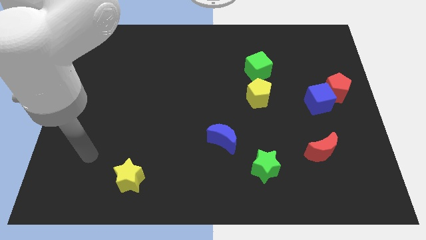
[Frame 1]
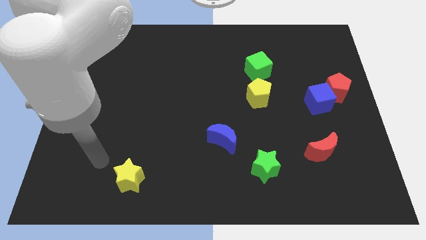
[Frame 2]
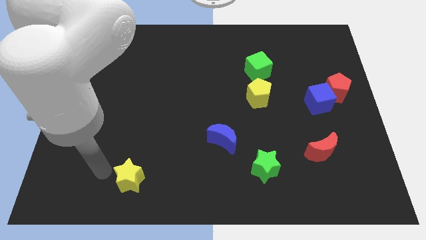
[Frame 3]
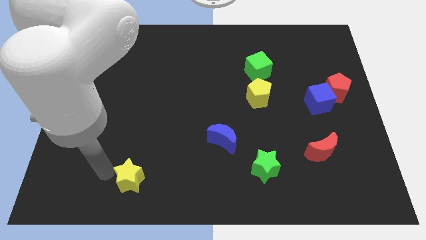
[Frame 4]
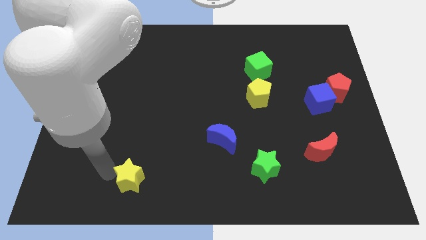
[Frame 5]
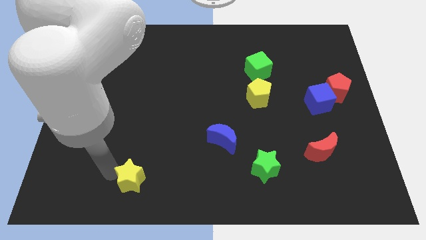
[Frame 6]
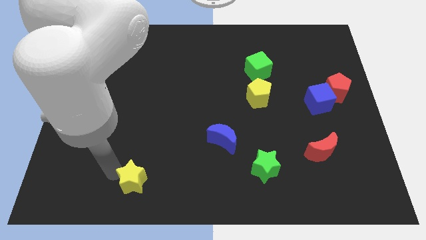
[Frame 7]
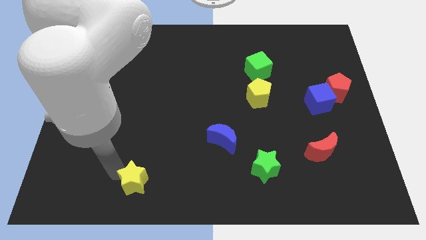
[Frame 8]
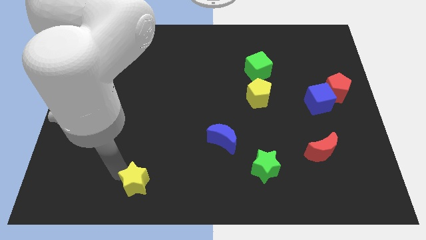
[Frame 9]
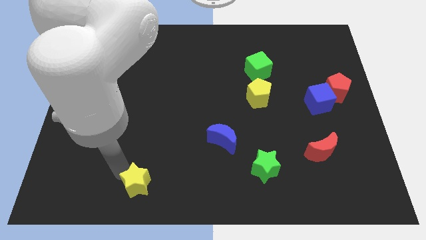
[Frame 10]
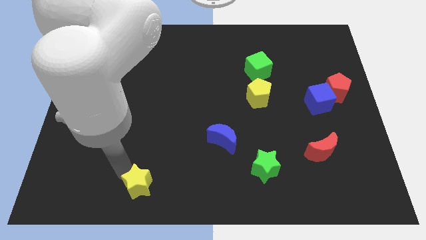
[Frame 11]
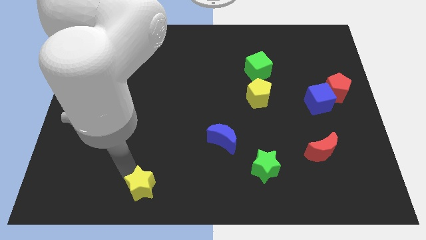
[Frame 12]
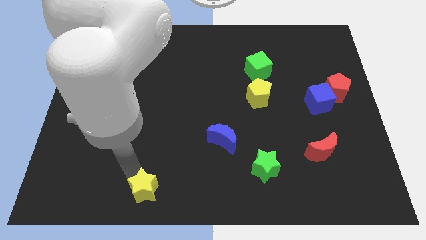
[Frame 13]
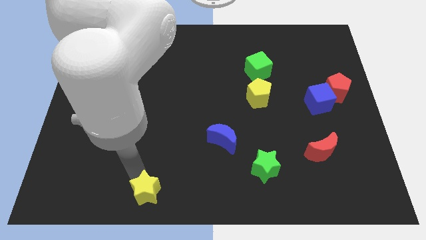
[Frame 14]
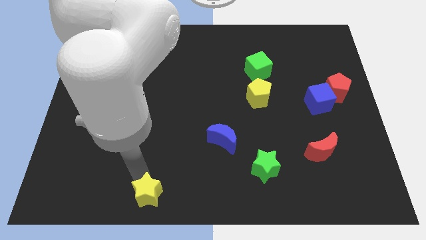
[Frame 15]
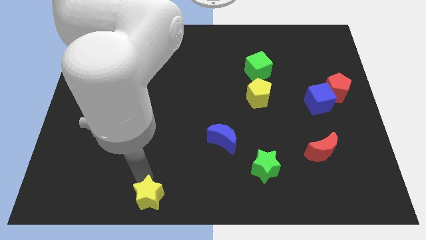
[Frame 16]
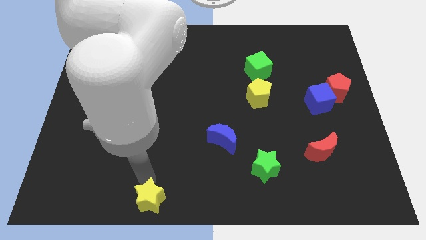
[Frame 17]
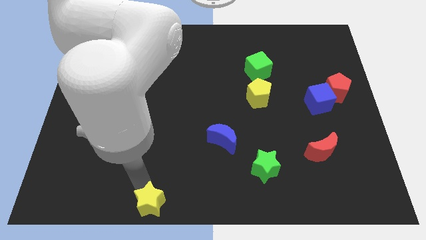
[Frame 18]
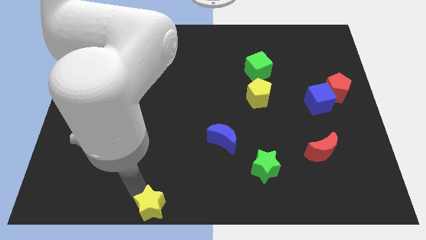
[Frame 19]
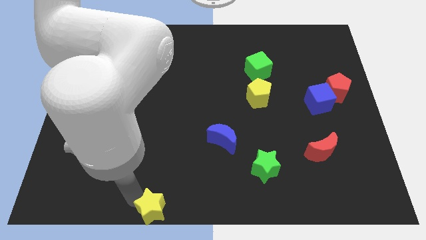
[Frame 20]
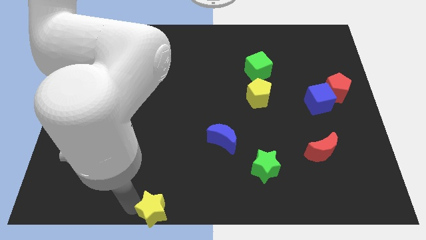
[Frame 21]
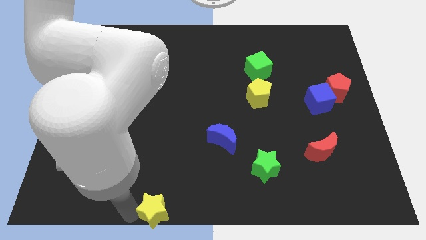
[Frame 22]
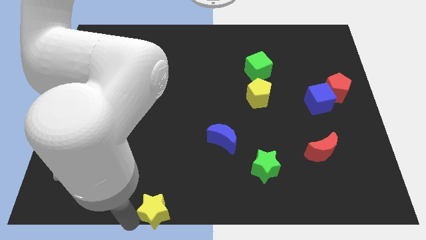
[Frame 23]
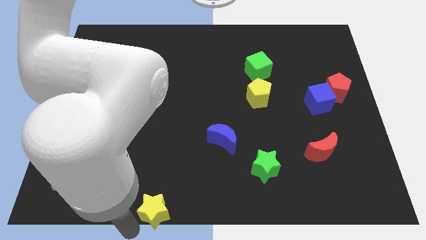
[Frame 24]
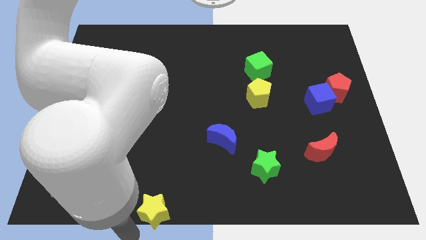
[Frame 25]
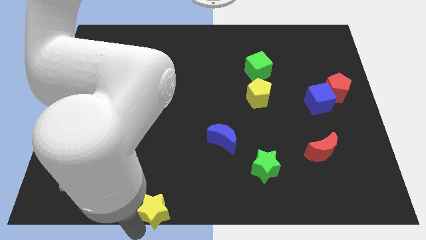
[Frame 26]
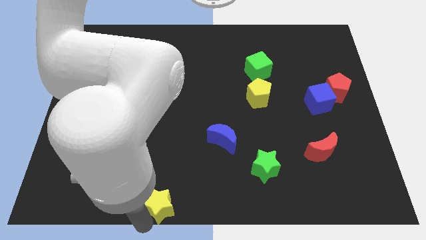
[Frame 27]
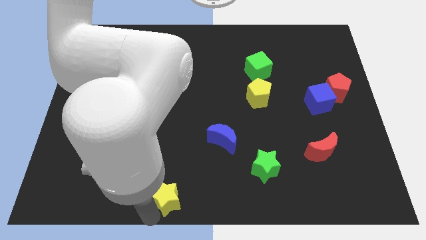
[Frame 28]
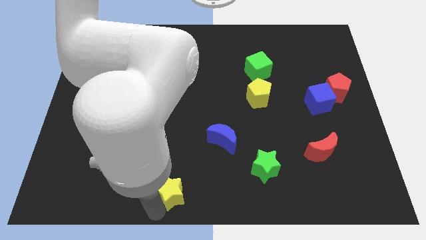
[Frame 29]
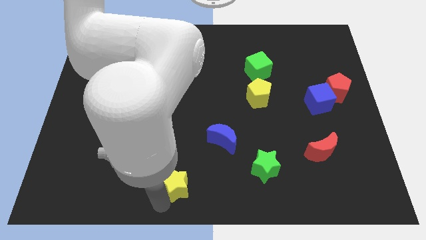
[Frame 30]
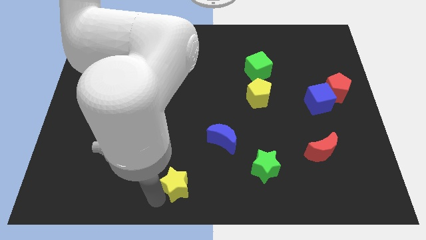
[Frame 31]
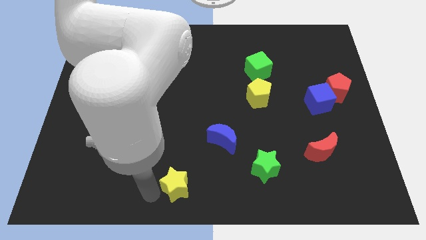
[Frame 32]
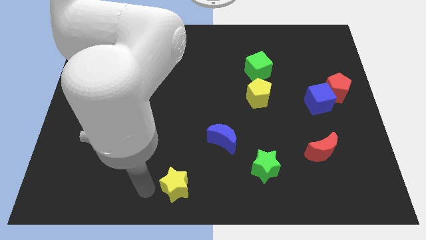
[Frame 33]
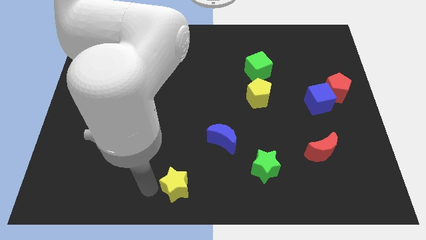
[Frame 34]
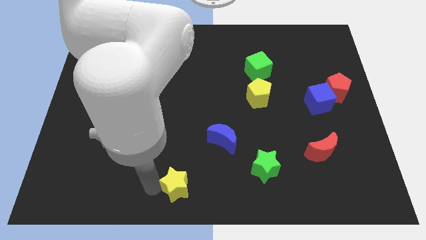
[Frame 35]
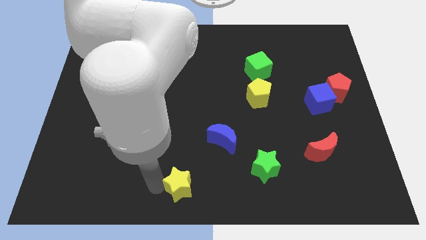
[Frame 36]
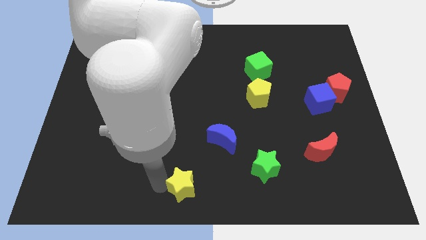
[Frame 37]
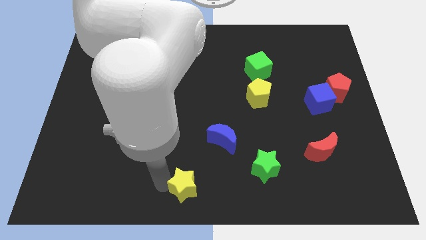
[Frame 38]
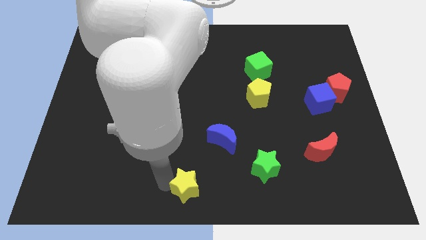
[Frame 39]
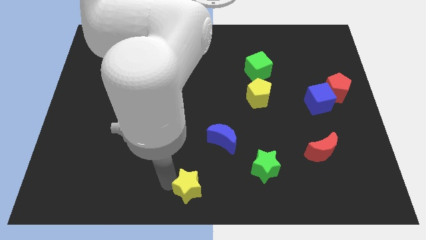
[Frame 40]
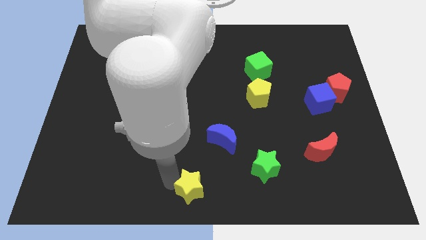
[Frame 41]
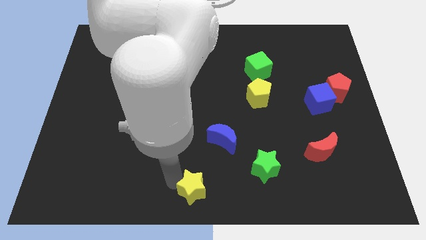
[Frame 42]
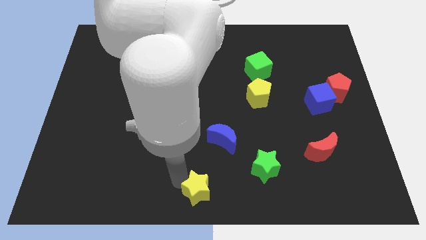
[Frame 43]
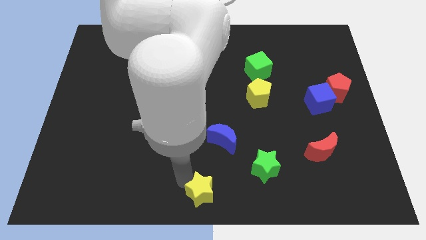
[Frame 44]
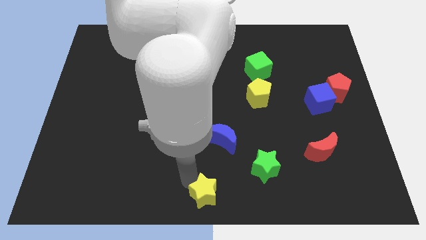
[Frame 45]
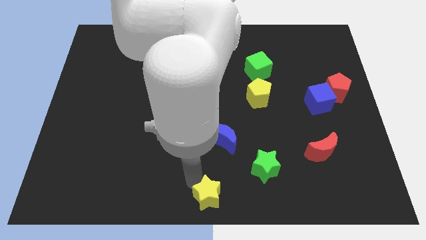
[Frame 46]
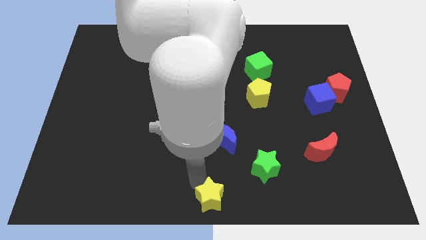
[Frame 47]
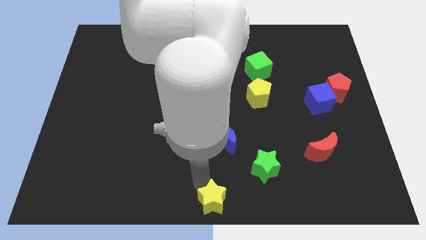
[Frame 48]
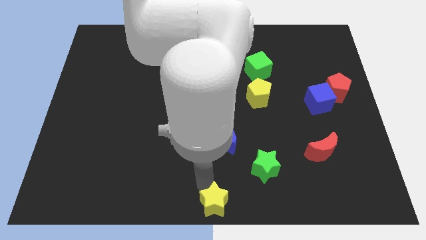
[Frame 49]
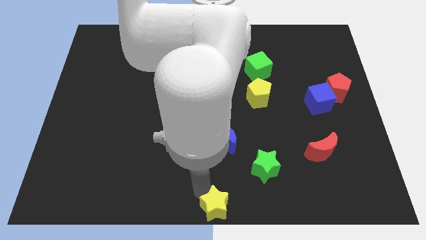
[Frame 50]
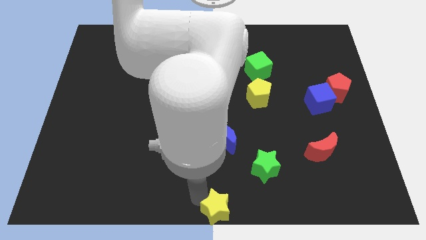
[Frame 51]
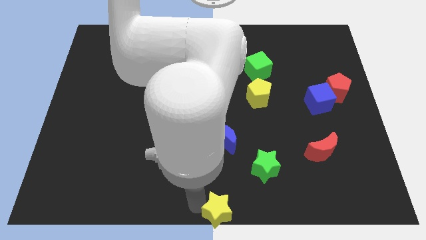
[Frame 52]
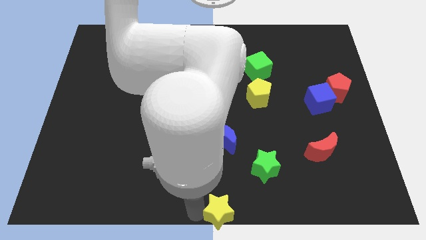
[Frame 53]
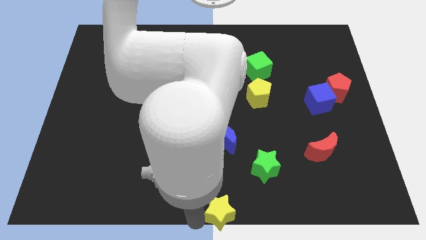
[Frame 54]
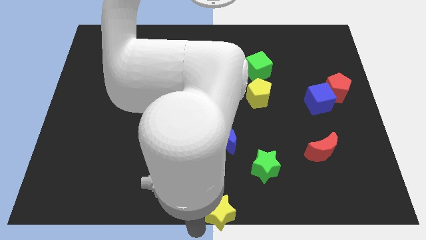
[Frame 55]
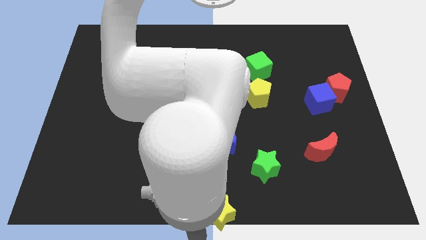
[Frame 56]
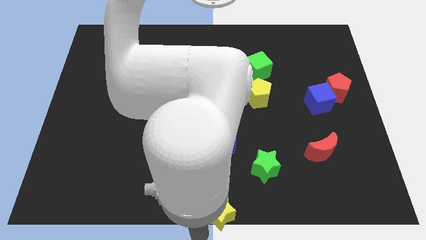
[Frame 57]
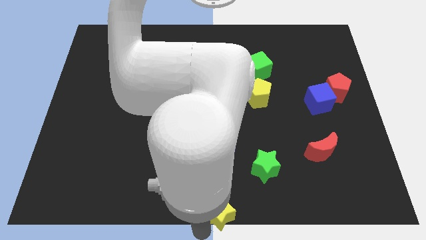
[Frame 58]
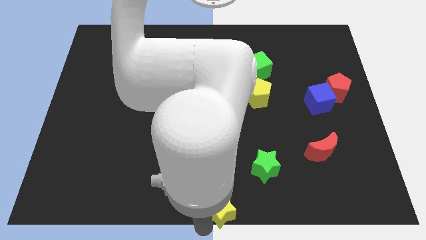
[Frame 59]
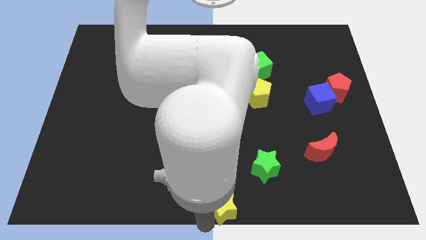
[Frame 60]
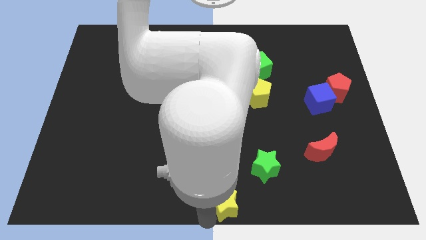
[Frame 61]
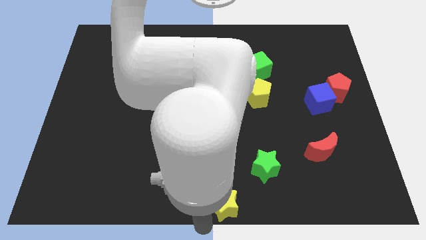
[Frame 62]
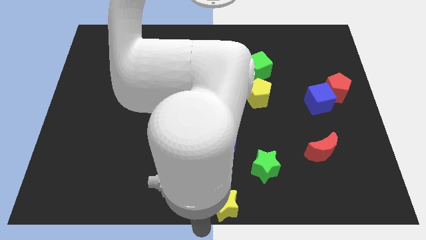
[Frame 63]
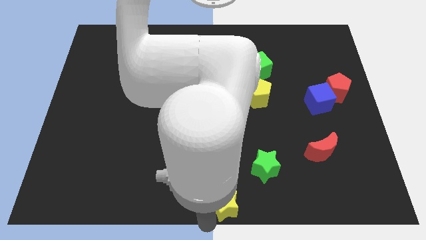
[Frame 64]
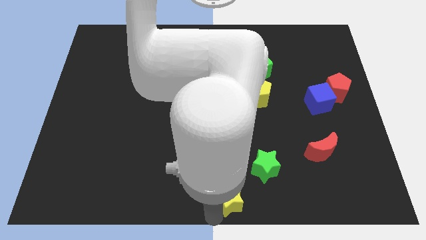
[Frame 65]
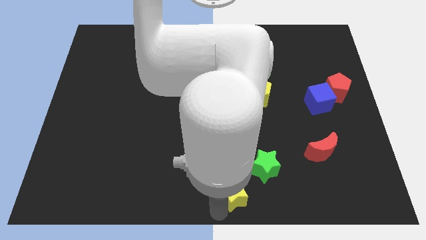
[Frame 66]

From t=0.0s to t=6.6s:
move the yellow star to the right

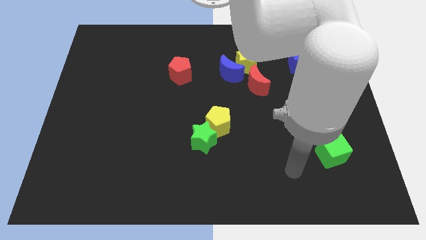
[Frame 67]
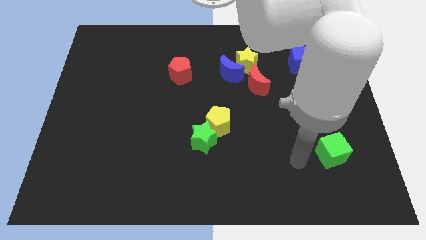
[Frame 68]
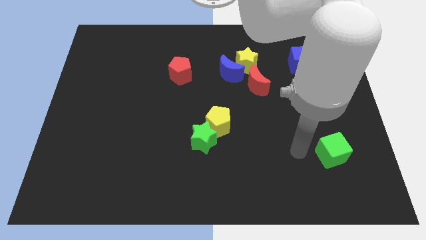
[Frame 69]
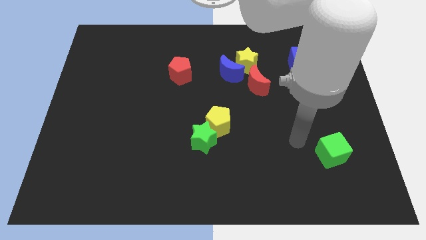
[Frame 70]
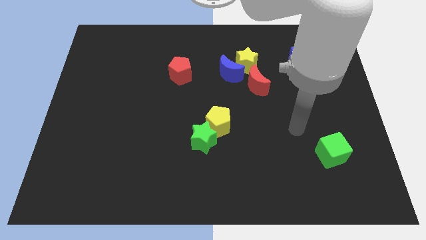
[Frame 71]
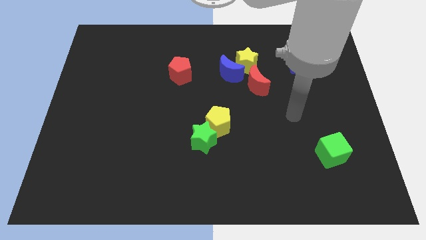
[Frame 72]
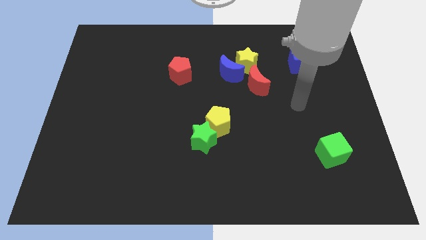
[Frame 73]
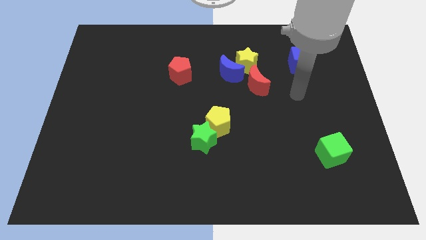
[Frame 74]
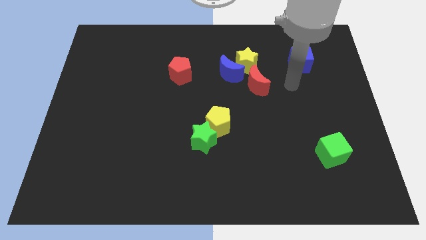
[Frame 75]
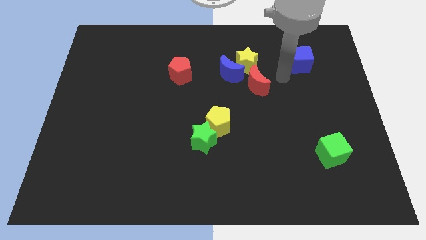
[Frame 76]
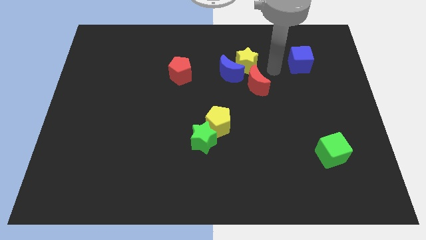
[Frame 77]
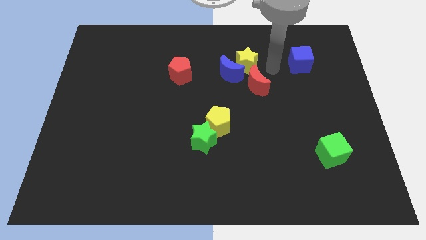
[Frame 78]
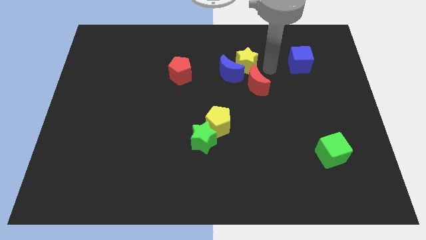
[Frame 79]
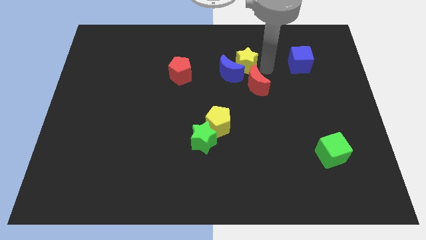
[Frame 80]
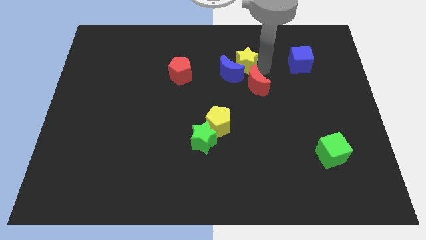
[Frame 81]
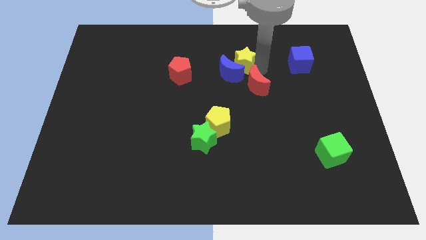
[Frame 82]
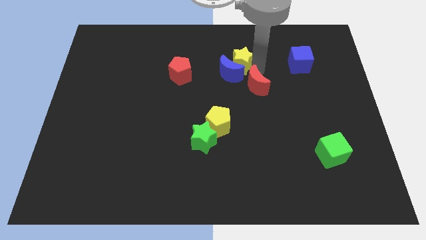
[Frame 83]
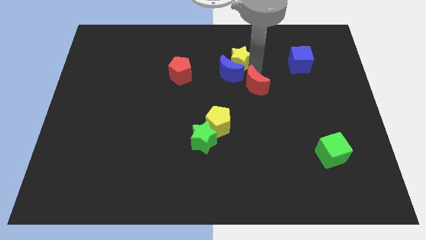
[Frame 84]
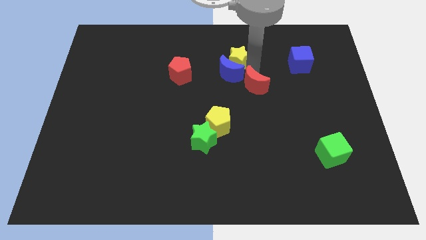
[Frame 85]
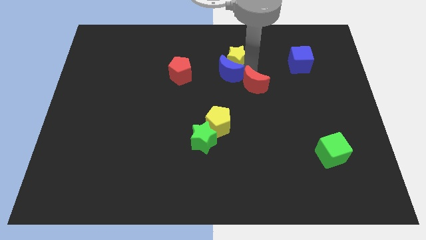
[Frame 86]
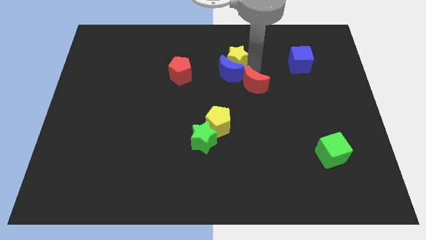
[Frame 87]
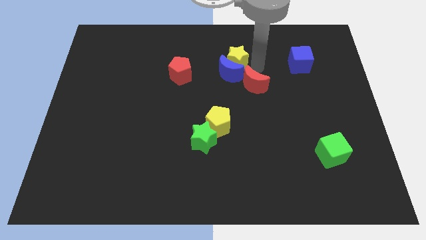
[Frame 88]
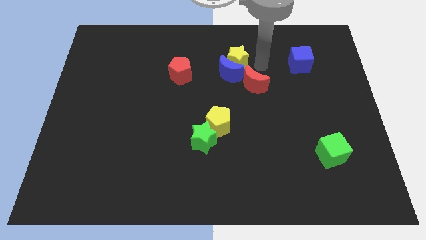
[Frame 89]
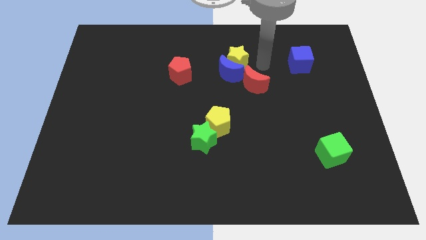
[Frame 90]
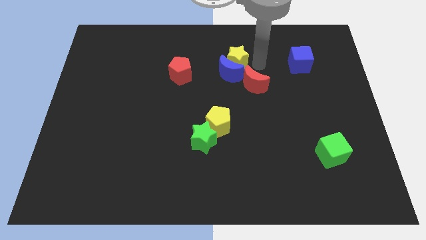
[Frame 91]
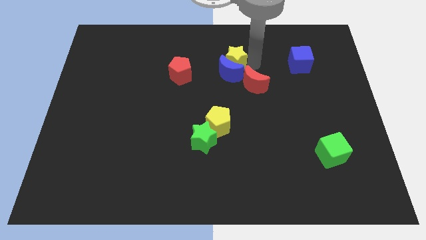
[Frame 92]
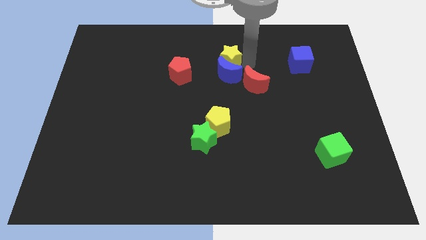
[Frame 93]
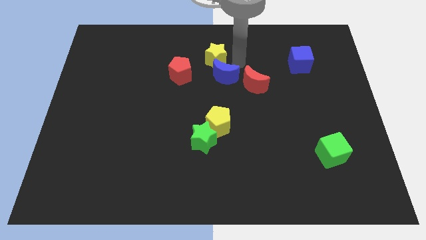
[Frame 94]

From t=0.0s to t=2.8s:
move the yellow star left a little
